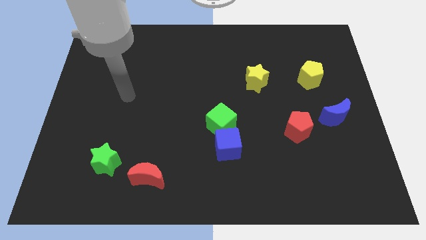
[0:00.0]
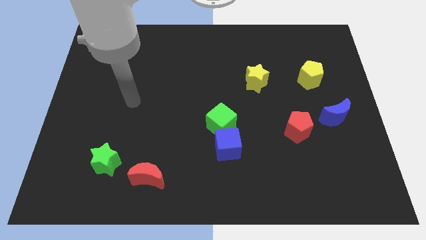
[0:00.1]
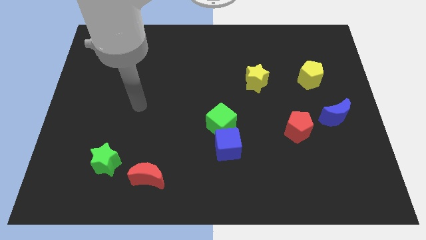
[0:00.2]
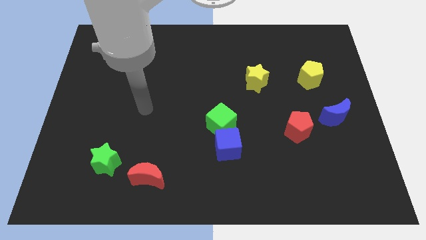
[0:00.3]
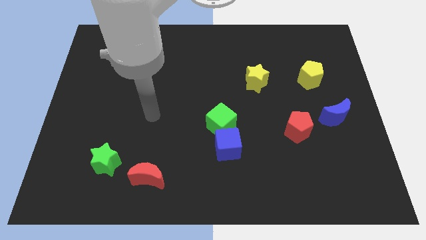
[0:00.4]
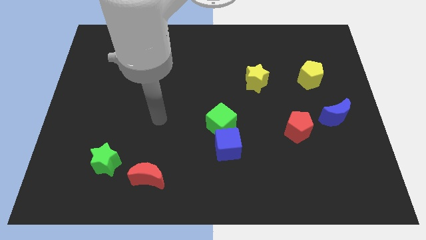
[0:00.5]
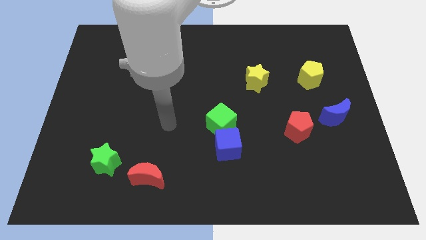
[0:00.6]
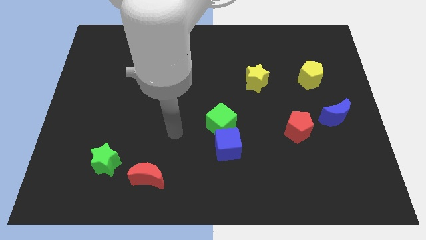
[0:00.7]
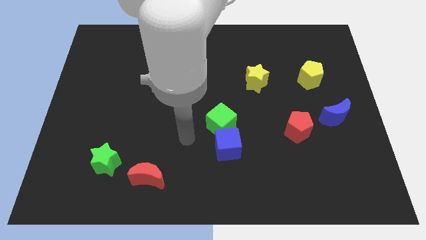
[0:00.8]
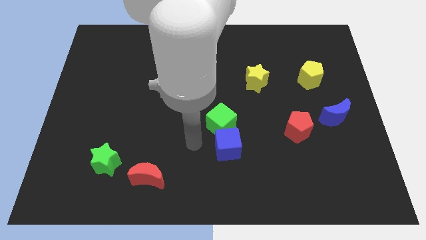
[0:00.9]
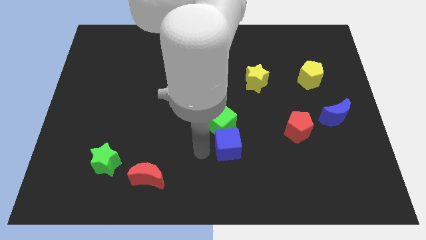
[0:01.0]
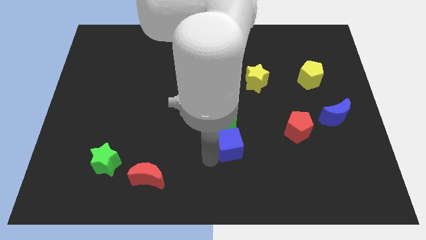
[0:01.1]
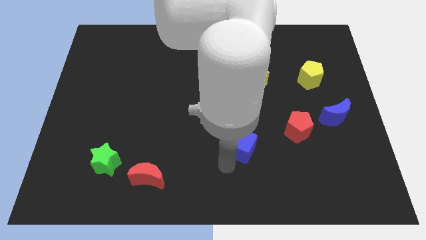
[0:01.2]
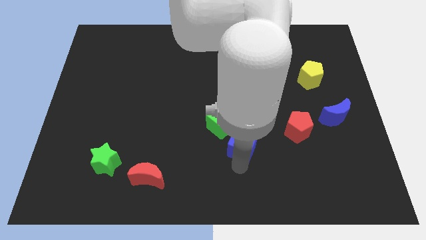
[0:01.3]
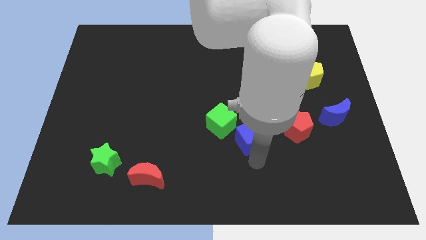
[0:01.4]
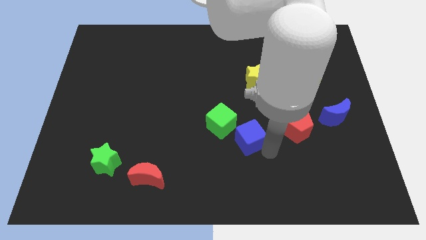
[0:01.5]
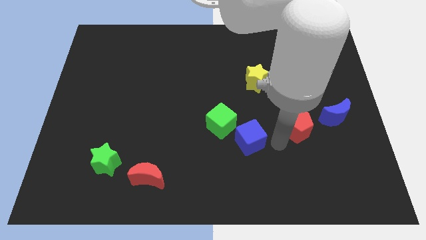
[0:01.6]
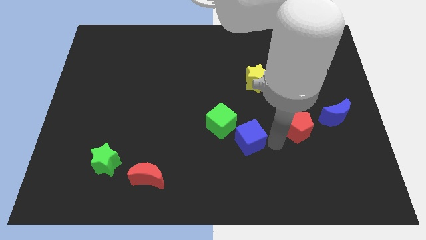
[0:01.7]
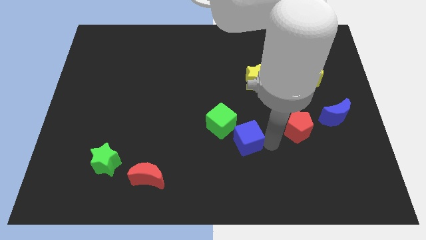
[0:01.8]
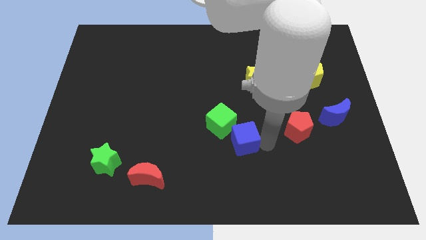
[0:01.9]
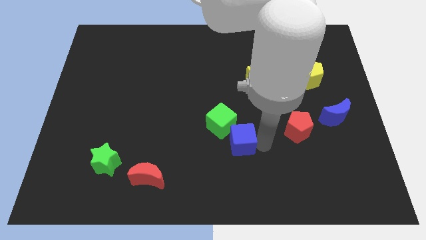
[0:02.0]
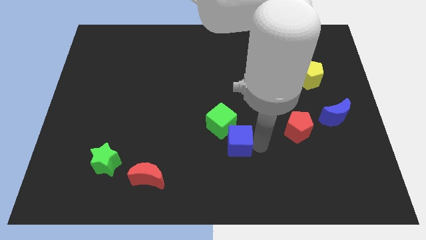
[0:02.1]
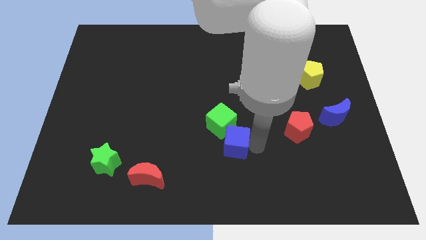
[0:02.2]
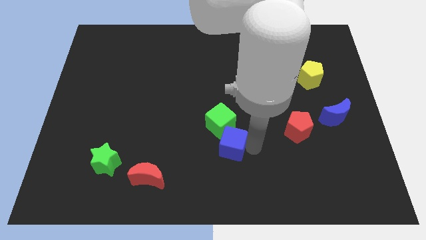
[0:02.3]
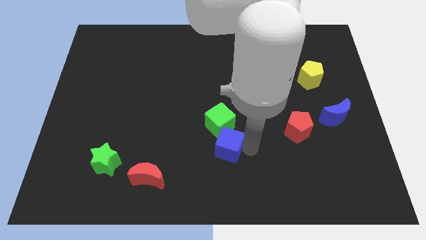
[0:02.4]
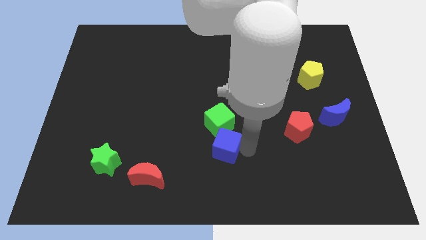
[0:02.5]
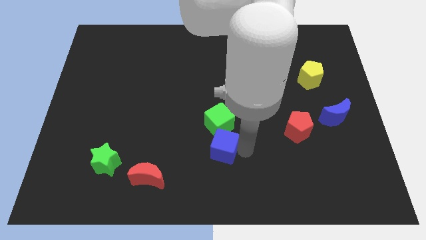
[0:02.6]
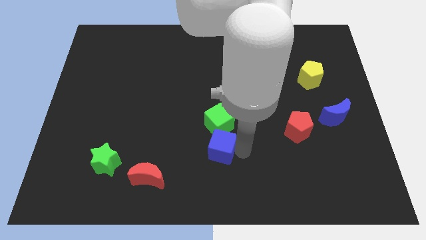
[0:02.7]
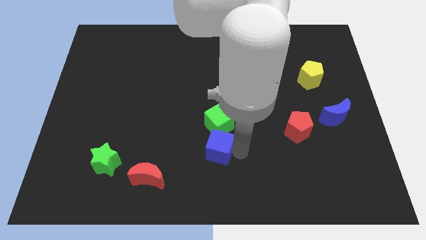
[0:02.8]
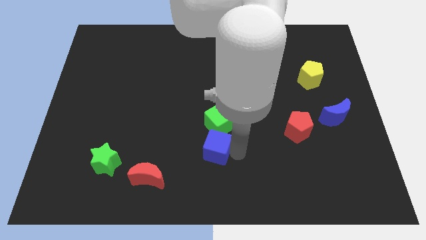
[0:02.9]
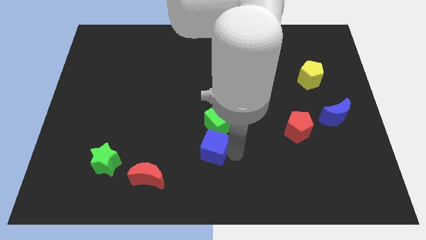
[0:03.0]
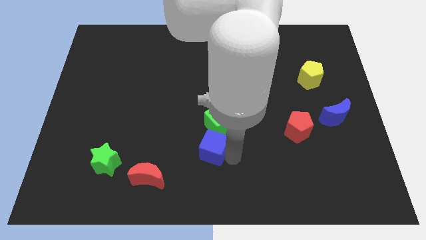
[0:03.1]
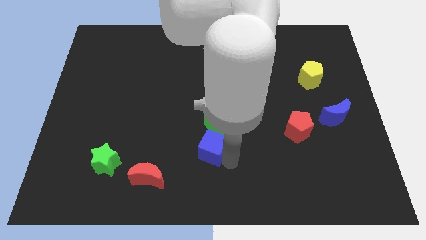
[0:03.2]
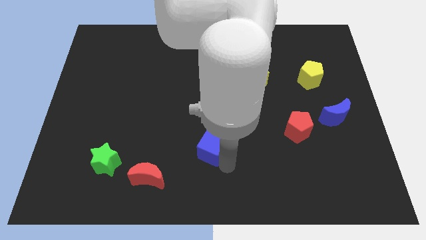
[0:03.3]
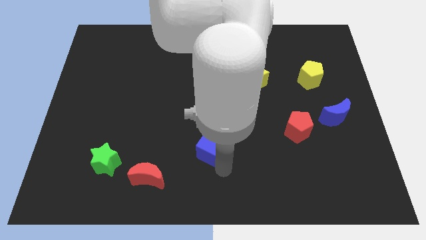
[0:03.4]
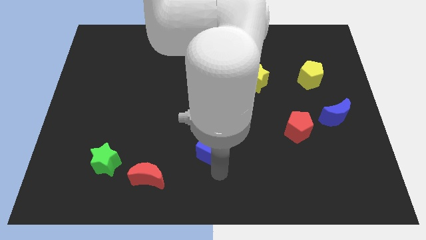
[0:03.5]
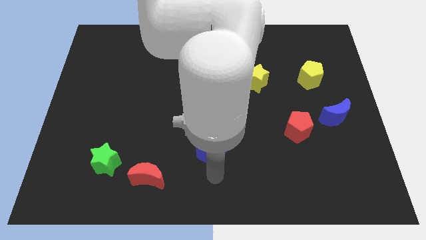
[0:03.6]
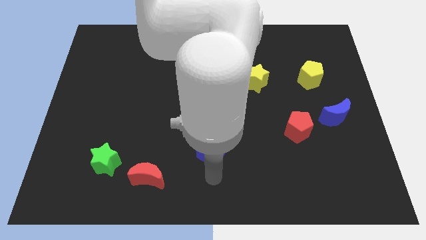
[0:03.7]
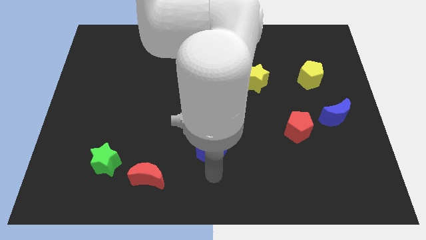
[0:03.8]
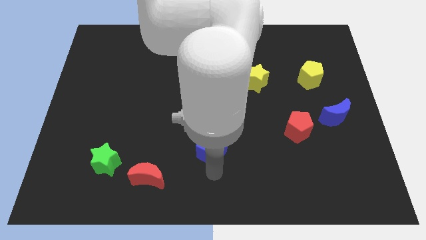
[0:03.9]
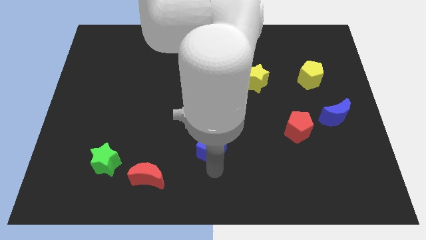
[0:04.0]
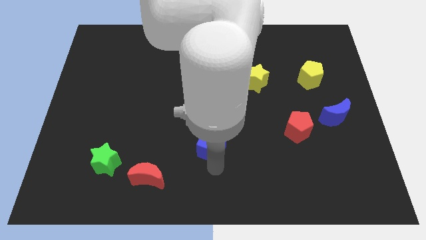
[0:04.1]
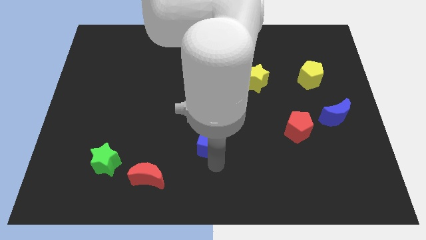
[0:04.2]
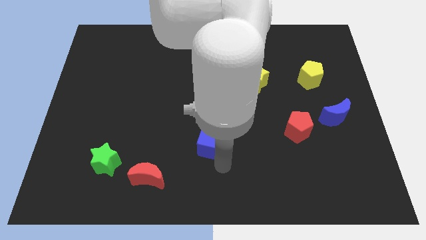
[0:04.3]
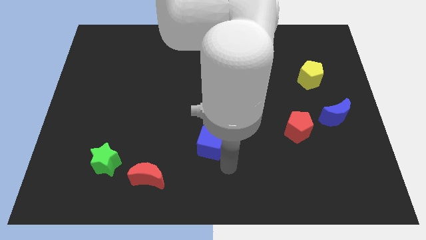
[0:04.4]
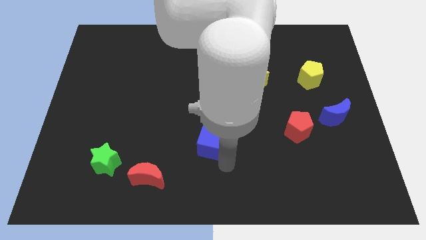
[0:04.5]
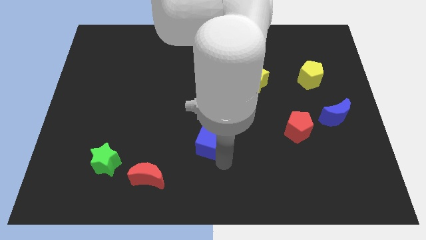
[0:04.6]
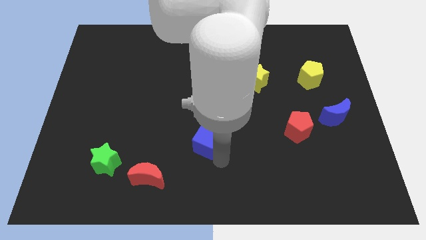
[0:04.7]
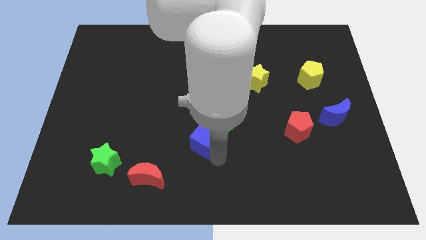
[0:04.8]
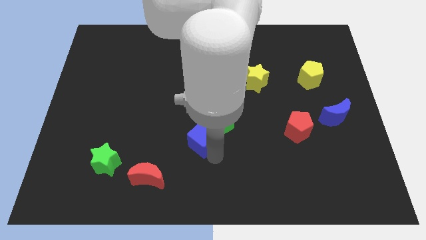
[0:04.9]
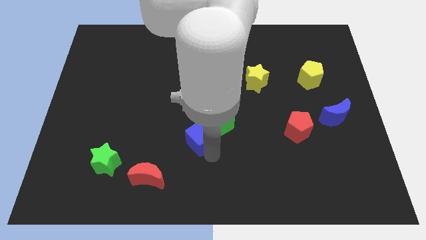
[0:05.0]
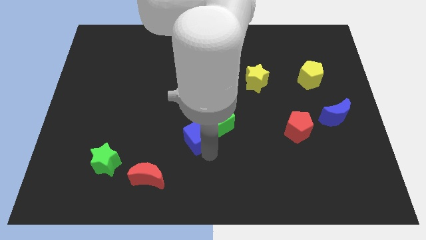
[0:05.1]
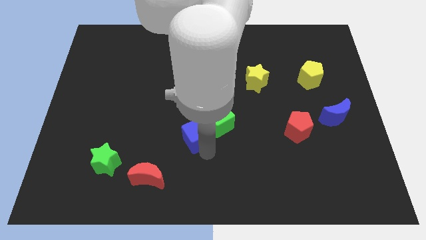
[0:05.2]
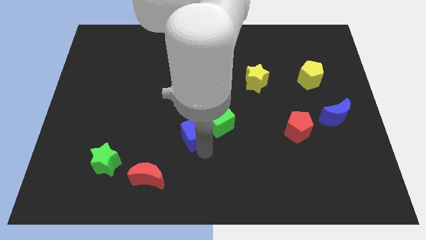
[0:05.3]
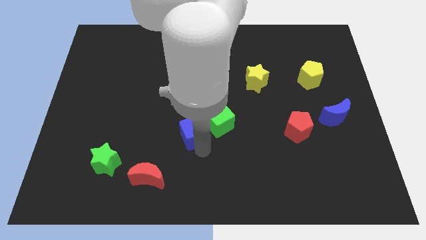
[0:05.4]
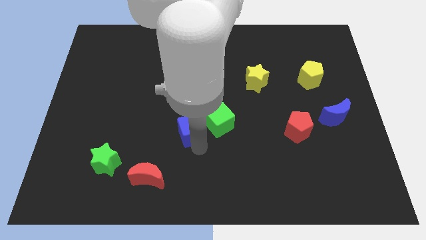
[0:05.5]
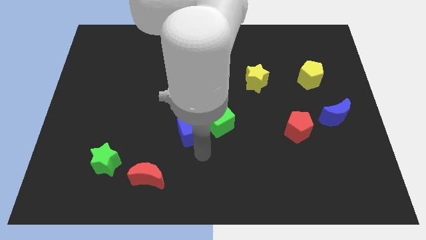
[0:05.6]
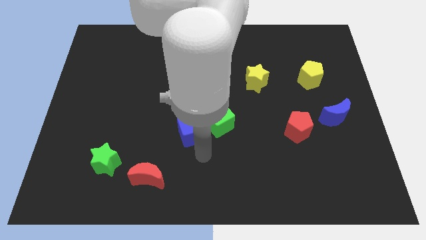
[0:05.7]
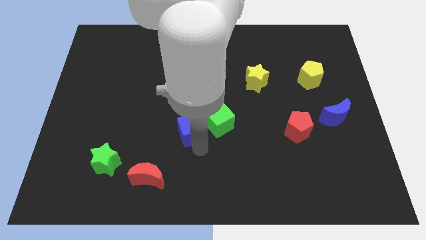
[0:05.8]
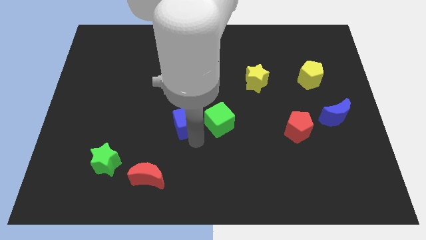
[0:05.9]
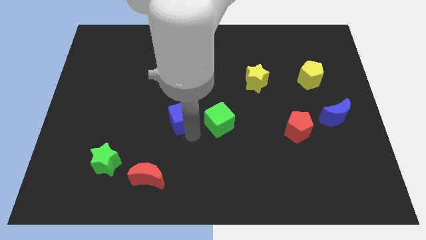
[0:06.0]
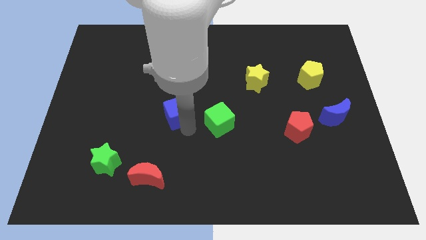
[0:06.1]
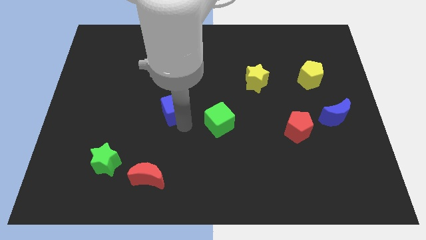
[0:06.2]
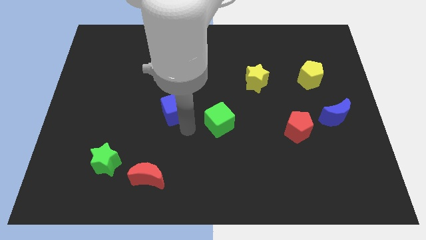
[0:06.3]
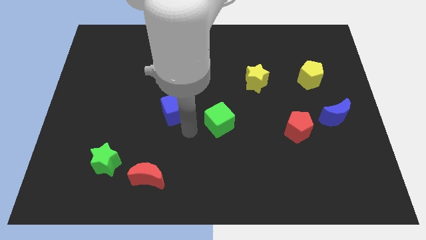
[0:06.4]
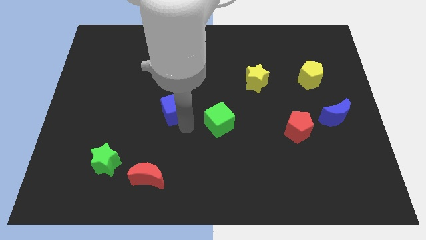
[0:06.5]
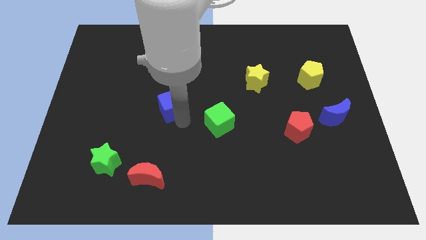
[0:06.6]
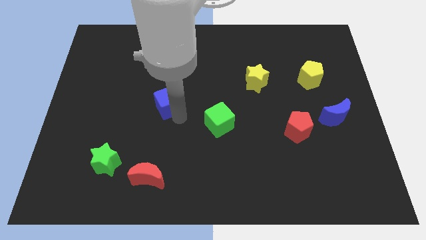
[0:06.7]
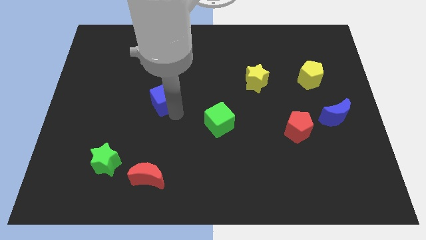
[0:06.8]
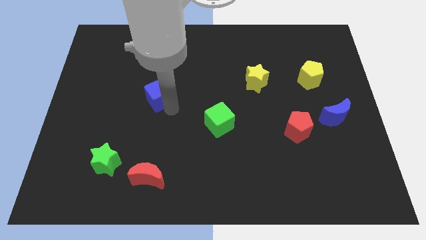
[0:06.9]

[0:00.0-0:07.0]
move the blue cube upwards and to the left diagonally

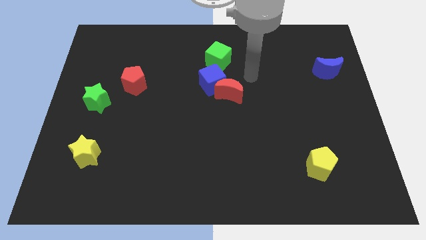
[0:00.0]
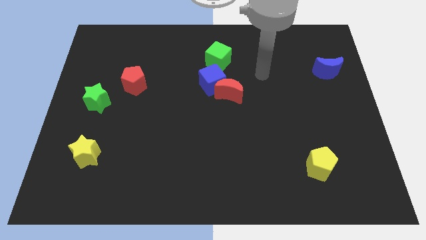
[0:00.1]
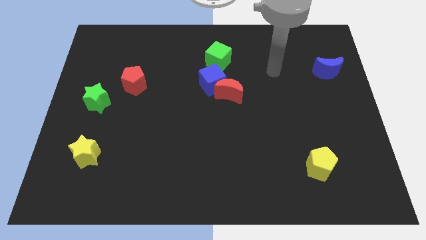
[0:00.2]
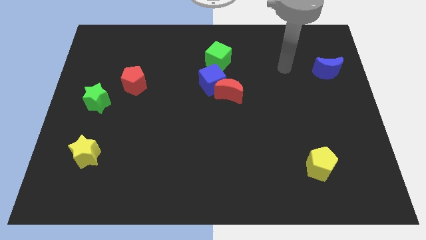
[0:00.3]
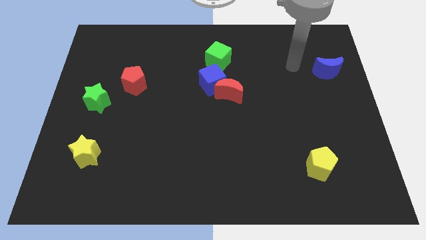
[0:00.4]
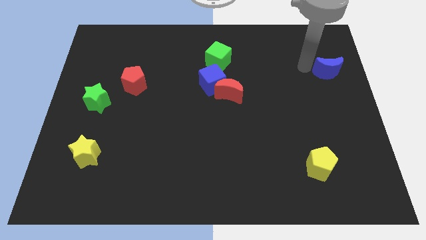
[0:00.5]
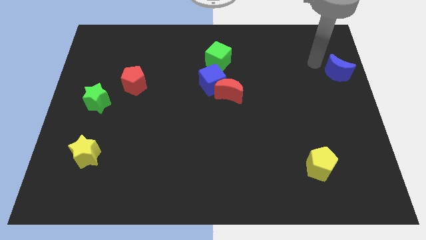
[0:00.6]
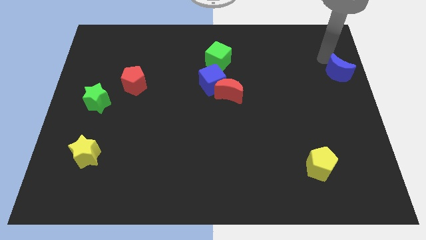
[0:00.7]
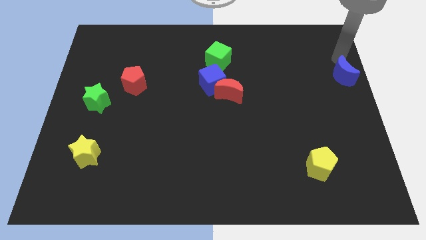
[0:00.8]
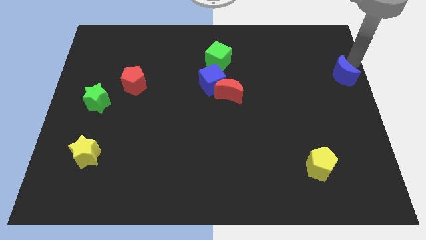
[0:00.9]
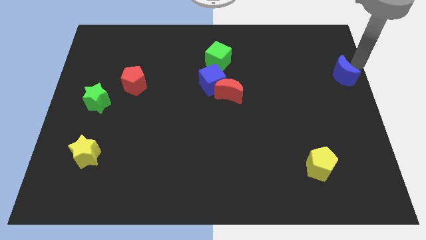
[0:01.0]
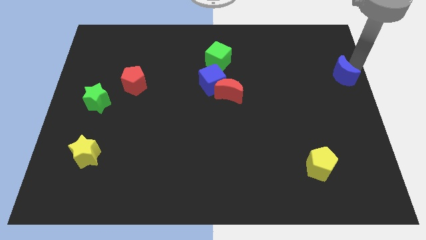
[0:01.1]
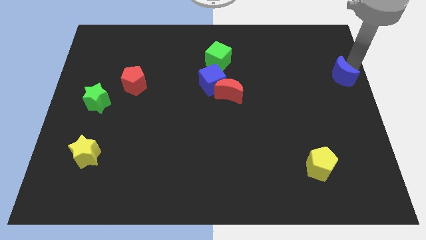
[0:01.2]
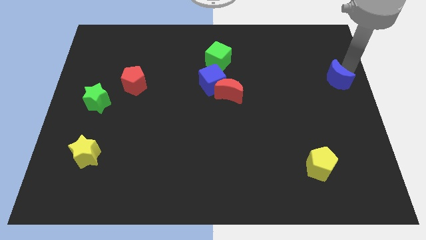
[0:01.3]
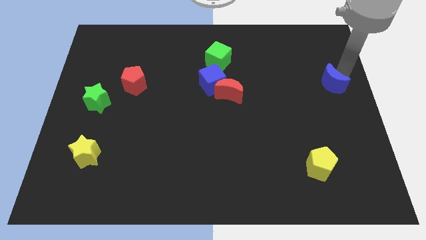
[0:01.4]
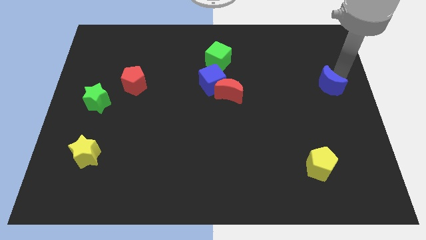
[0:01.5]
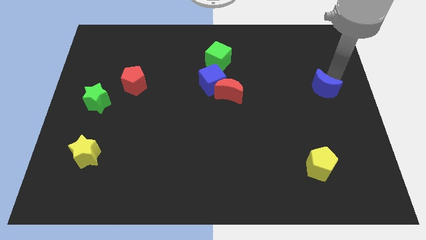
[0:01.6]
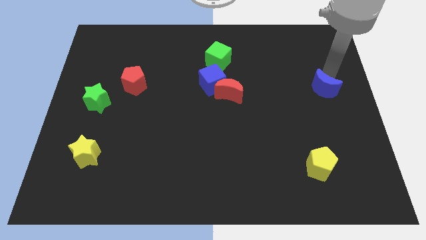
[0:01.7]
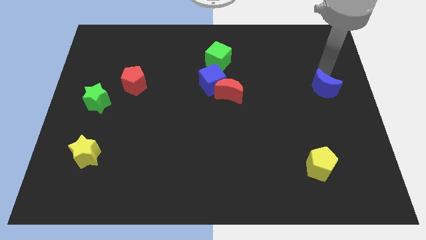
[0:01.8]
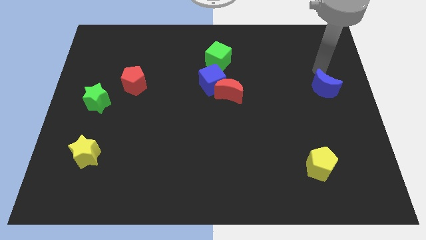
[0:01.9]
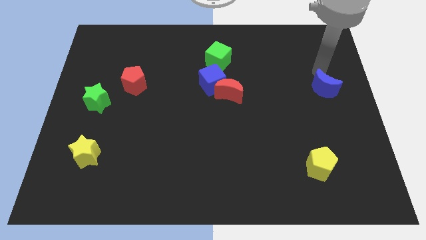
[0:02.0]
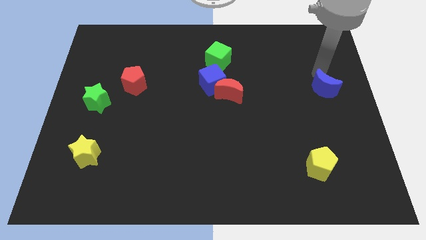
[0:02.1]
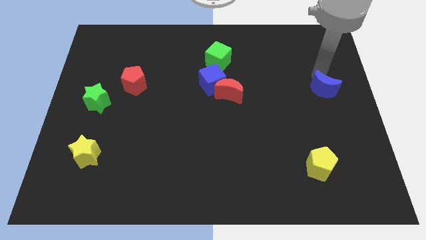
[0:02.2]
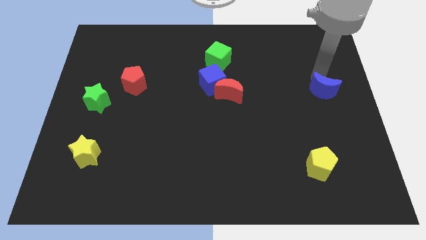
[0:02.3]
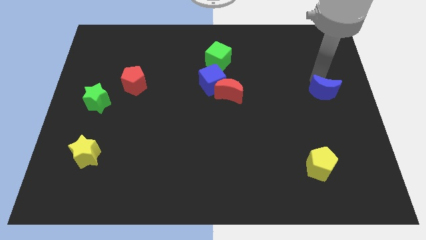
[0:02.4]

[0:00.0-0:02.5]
slightly move the blue moon downwards
